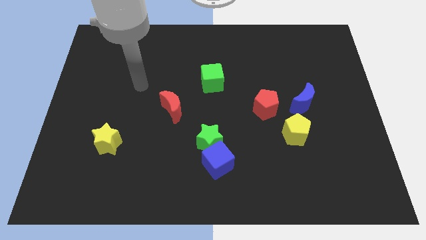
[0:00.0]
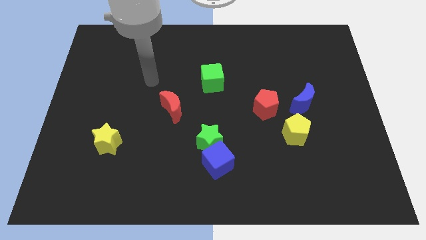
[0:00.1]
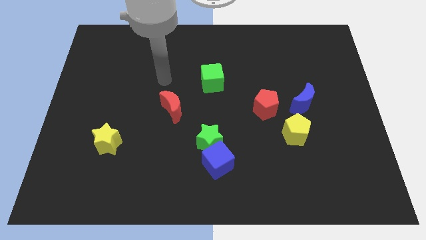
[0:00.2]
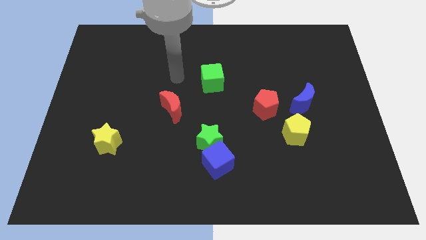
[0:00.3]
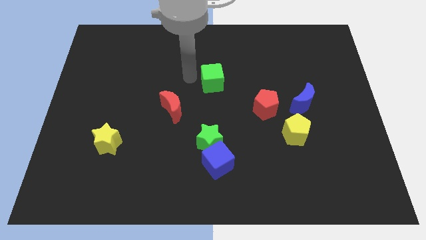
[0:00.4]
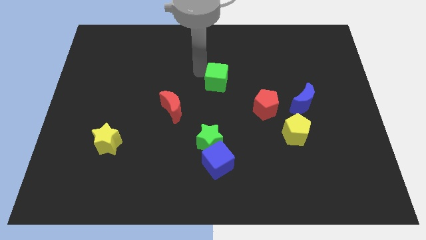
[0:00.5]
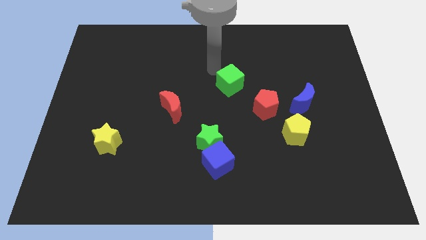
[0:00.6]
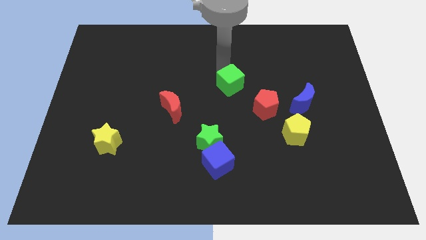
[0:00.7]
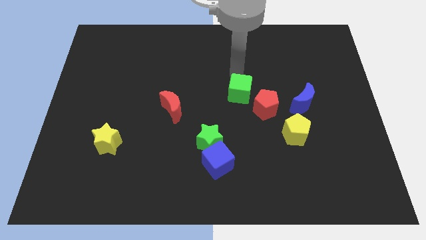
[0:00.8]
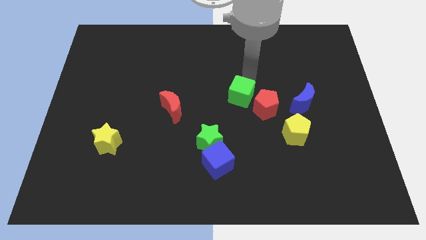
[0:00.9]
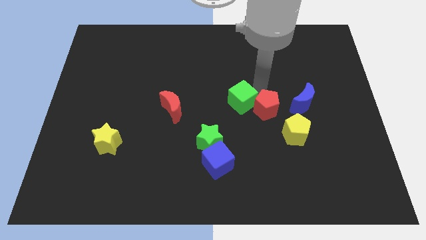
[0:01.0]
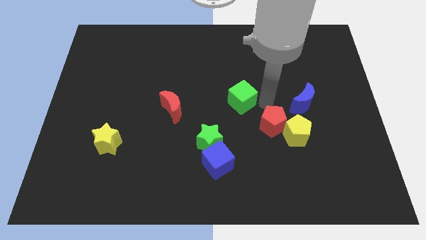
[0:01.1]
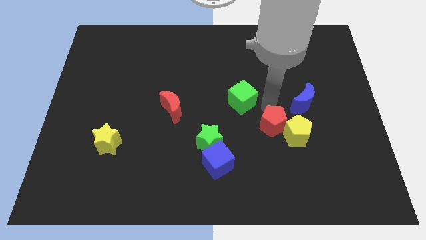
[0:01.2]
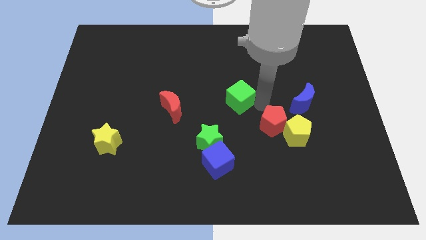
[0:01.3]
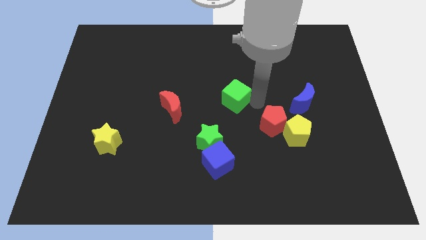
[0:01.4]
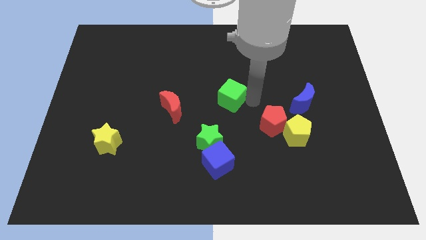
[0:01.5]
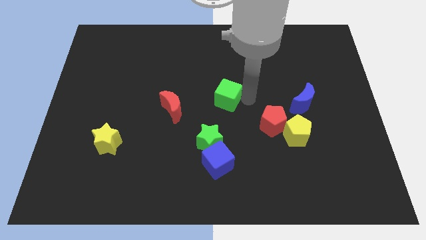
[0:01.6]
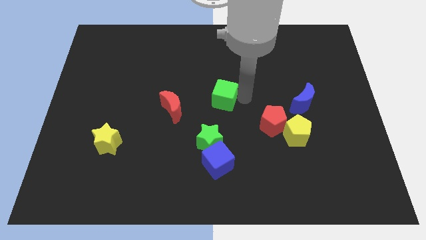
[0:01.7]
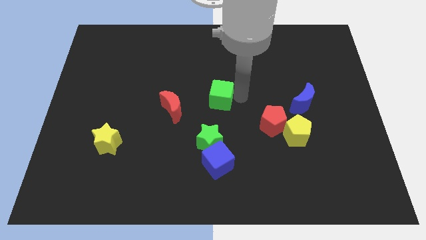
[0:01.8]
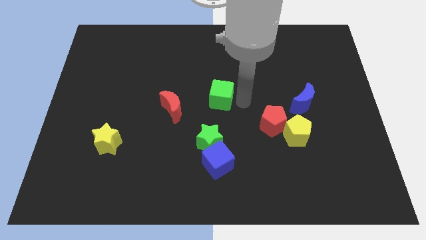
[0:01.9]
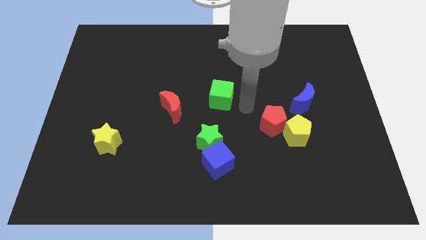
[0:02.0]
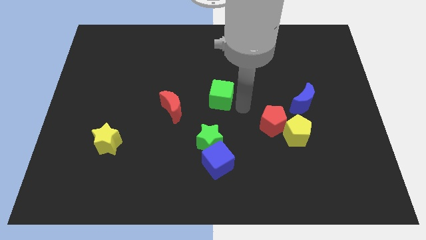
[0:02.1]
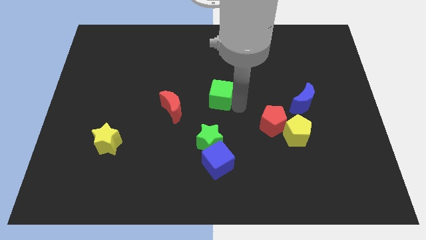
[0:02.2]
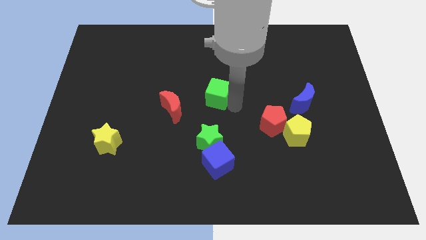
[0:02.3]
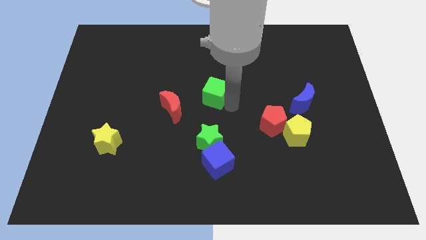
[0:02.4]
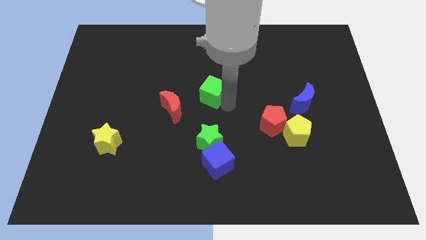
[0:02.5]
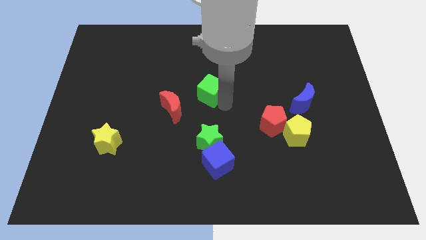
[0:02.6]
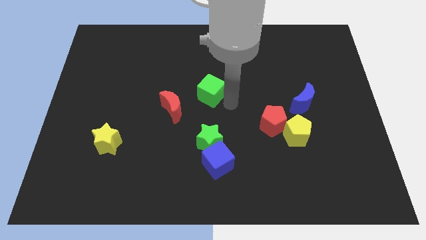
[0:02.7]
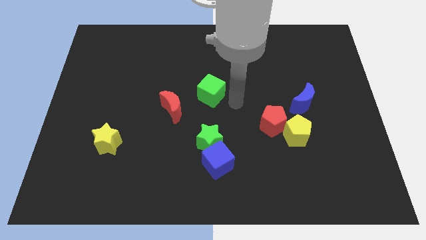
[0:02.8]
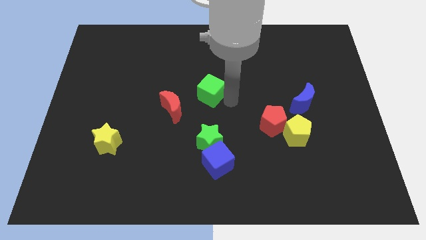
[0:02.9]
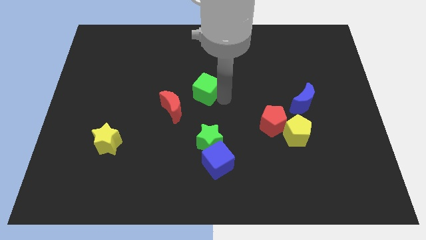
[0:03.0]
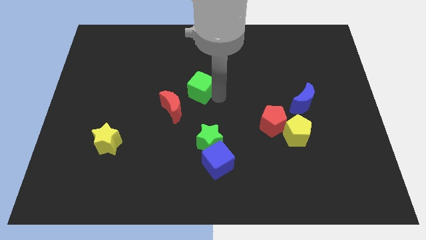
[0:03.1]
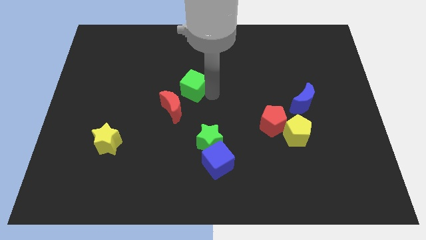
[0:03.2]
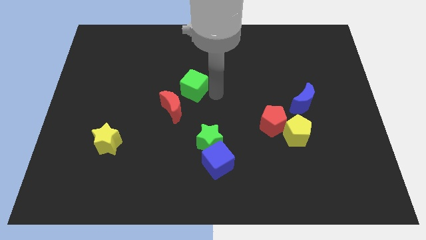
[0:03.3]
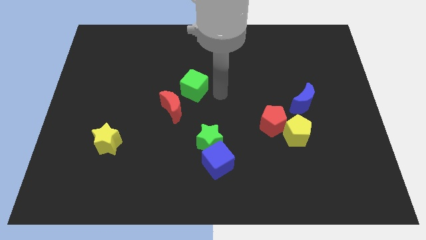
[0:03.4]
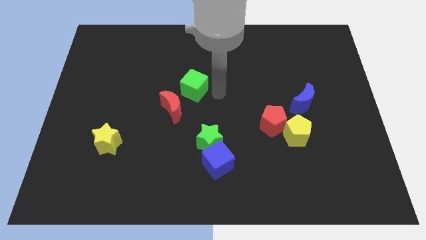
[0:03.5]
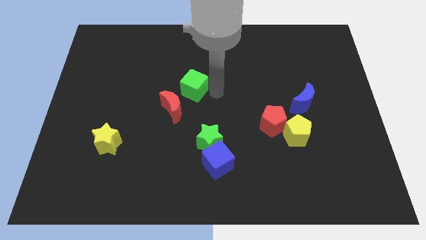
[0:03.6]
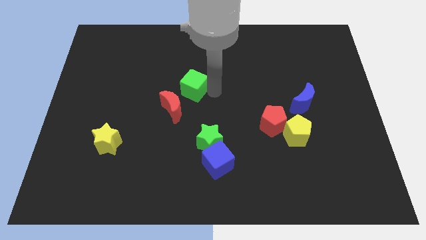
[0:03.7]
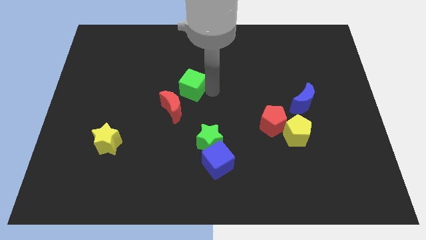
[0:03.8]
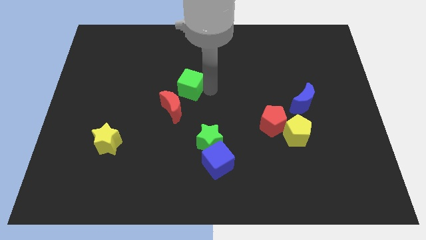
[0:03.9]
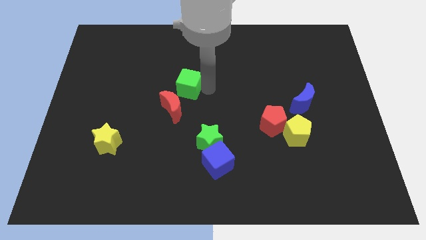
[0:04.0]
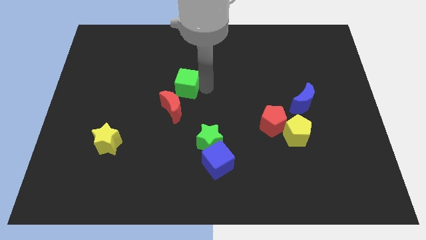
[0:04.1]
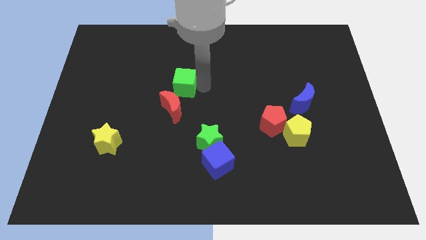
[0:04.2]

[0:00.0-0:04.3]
slightly slide the green cube left

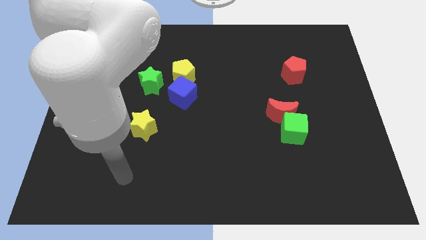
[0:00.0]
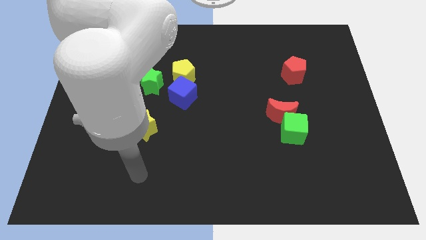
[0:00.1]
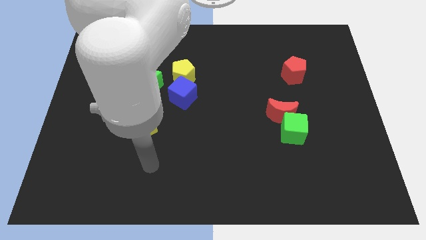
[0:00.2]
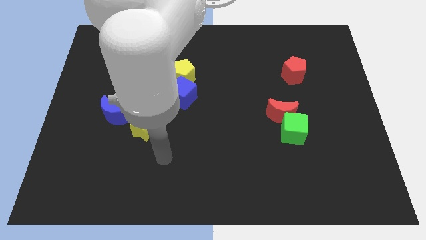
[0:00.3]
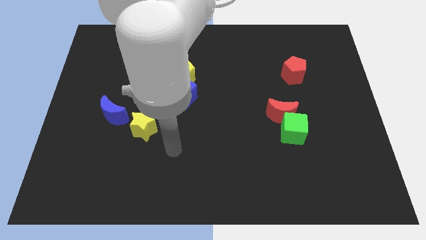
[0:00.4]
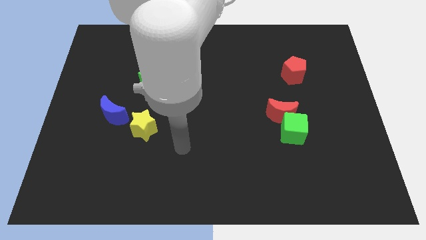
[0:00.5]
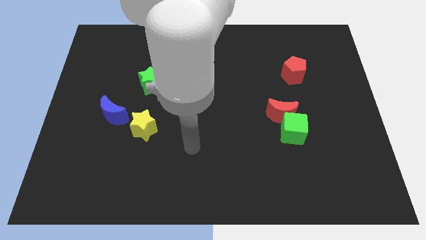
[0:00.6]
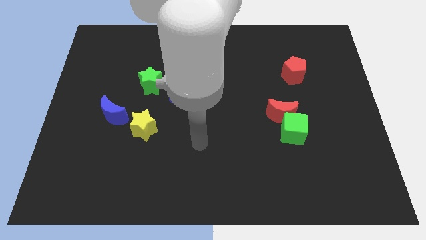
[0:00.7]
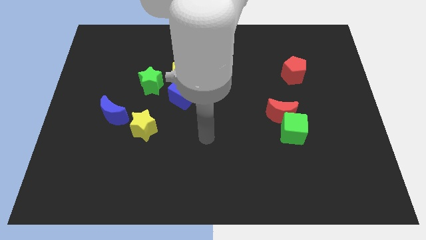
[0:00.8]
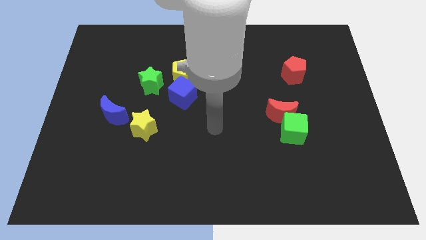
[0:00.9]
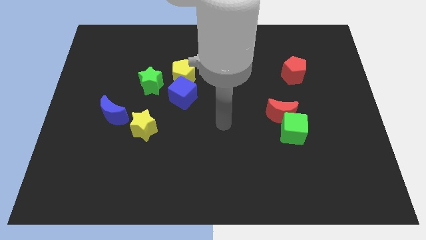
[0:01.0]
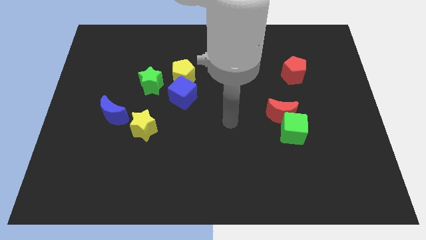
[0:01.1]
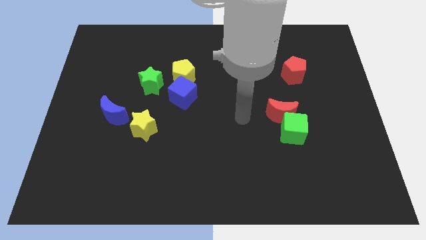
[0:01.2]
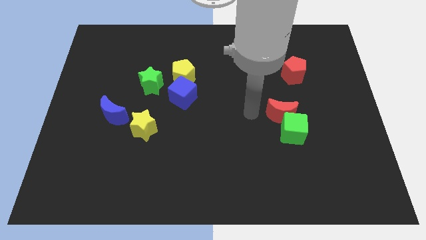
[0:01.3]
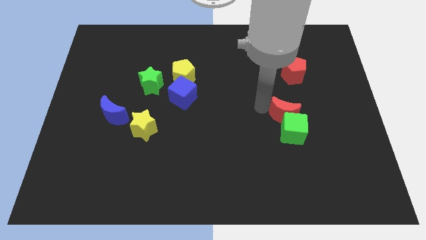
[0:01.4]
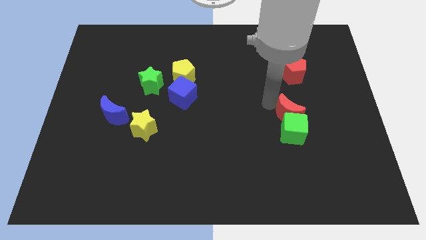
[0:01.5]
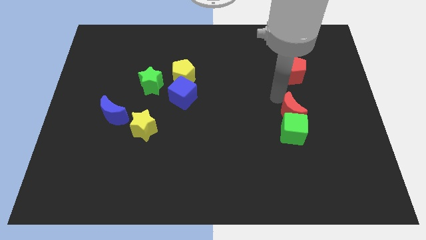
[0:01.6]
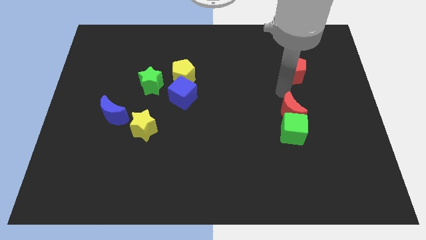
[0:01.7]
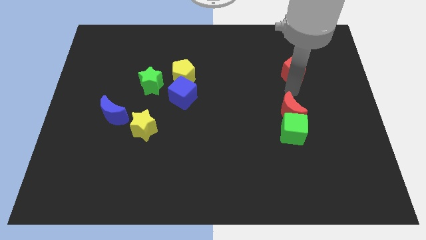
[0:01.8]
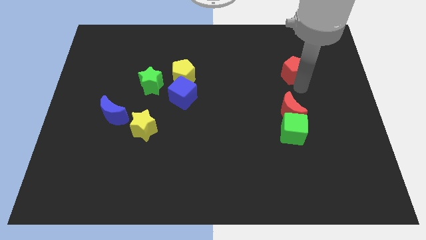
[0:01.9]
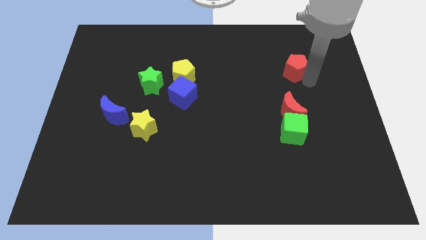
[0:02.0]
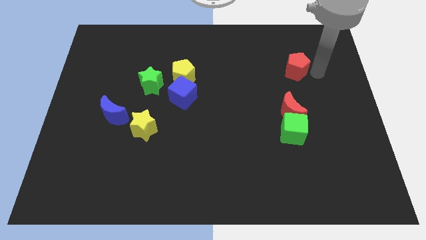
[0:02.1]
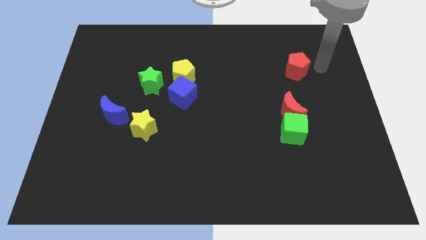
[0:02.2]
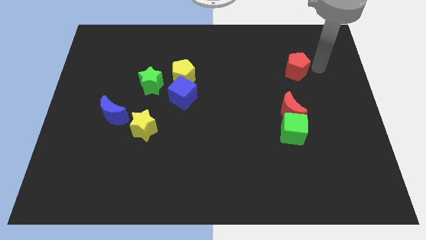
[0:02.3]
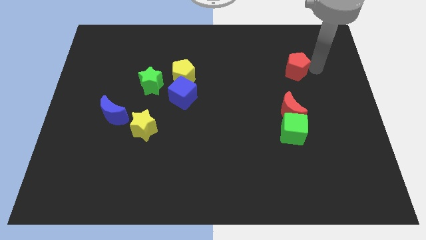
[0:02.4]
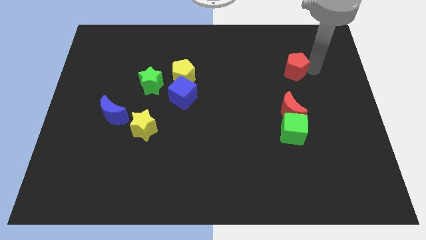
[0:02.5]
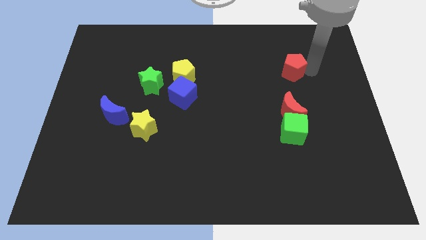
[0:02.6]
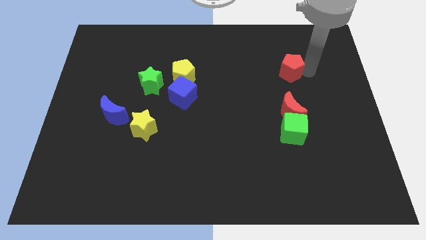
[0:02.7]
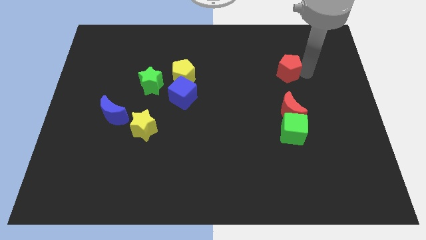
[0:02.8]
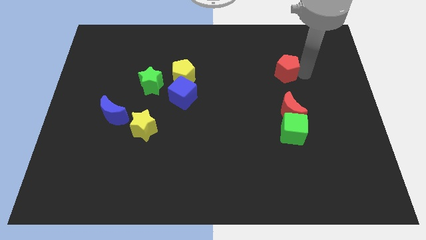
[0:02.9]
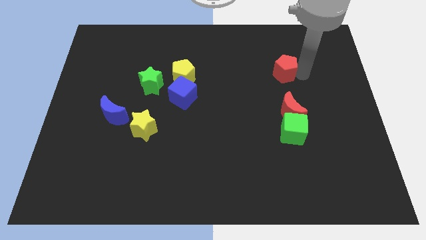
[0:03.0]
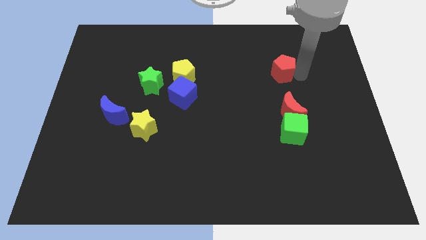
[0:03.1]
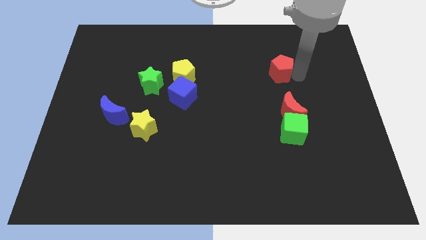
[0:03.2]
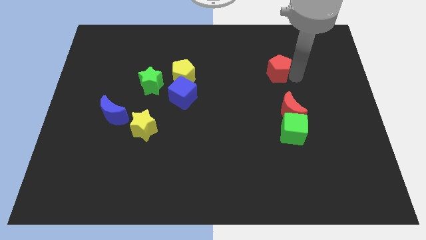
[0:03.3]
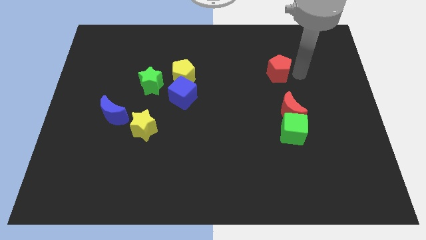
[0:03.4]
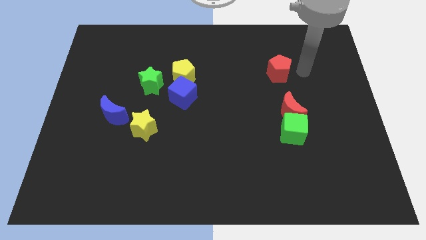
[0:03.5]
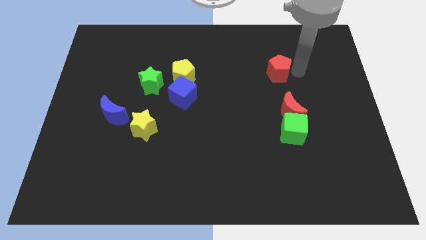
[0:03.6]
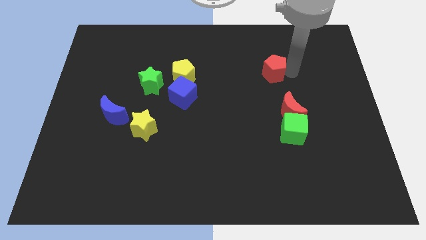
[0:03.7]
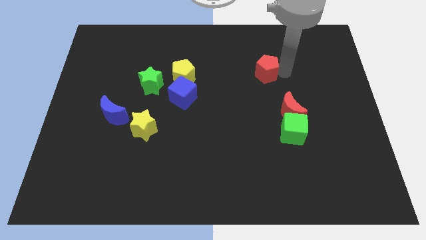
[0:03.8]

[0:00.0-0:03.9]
slightly push the red pentagon to the left
